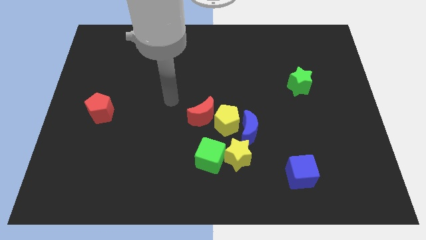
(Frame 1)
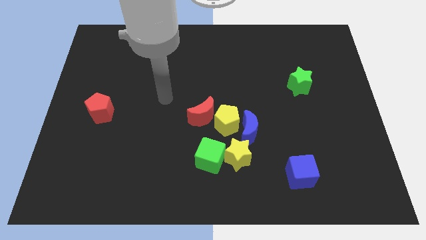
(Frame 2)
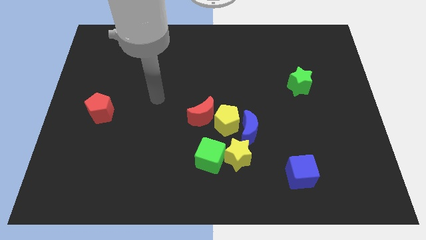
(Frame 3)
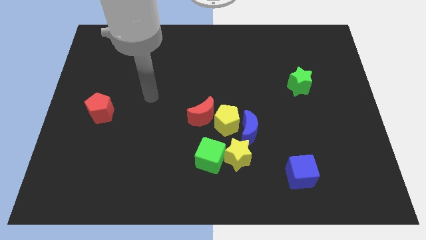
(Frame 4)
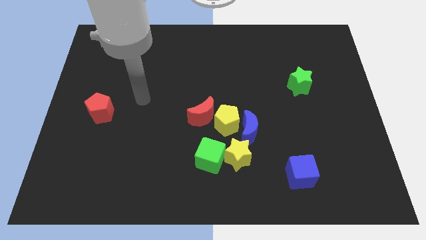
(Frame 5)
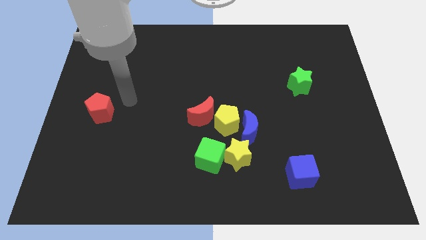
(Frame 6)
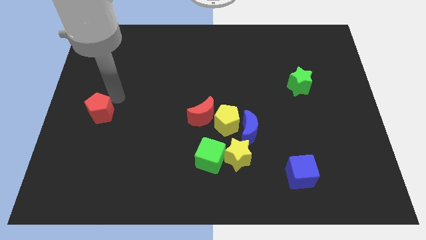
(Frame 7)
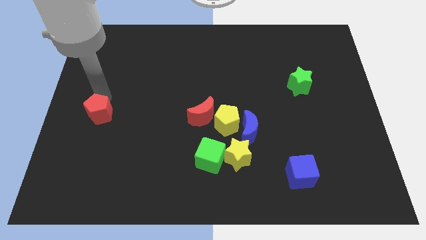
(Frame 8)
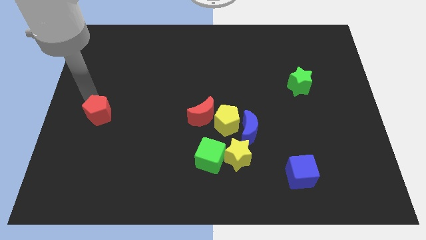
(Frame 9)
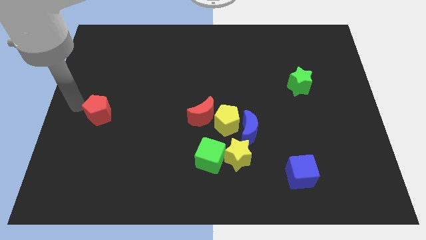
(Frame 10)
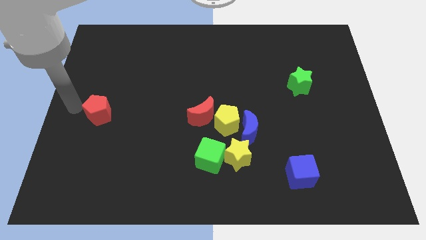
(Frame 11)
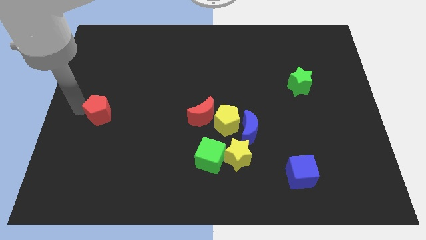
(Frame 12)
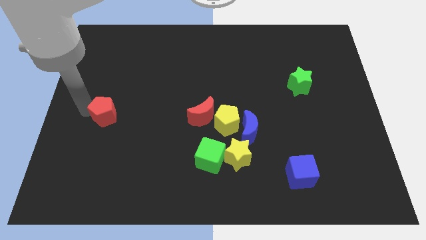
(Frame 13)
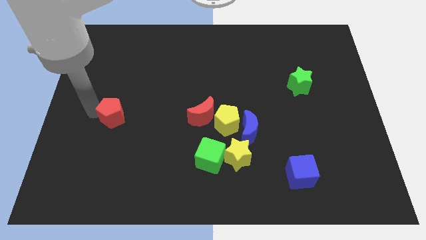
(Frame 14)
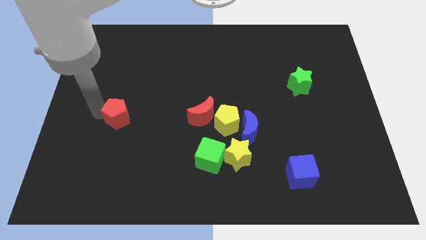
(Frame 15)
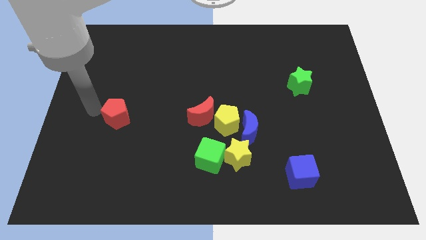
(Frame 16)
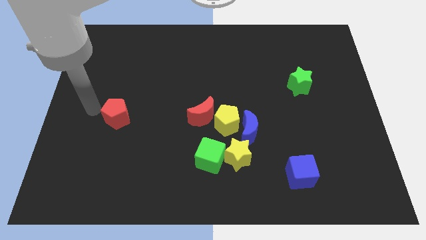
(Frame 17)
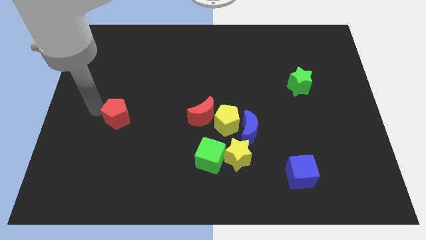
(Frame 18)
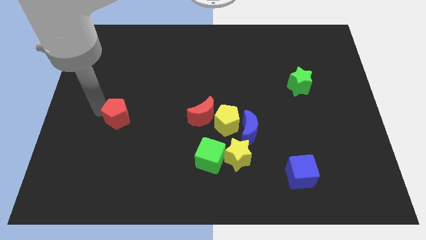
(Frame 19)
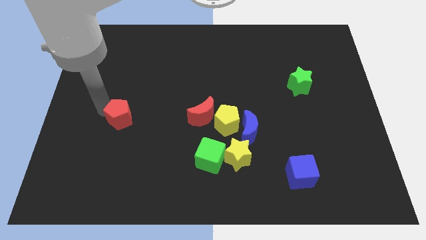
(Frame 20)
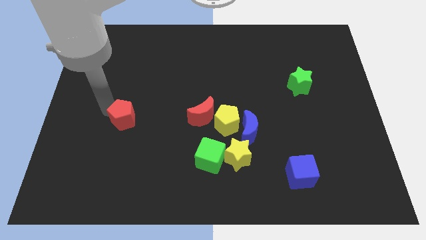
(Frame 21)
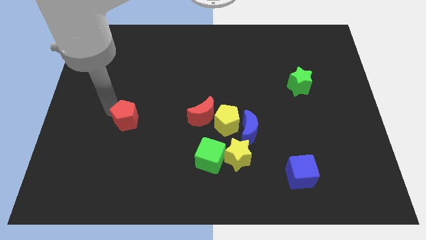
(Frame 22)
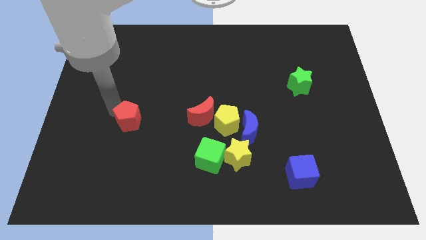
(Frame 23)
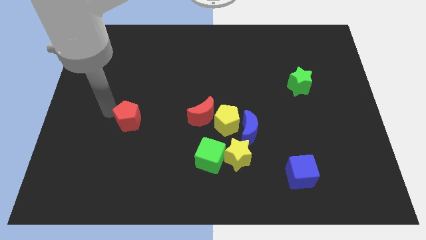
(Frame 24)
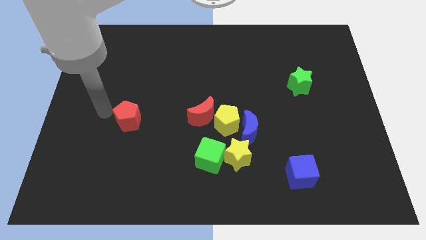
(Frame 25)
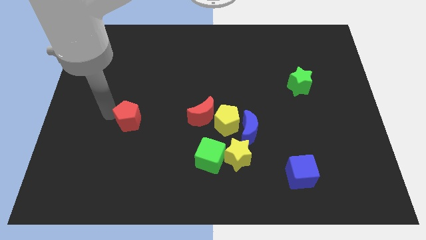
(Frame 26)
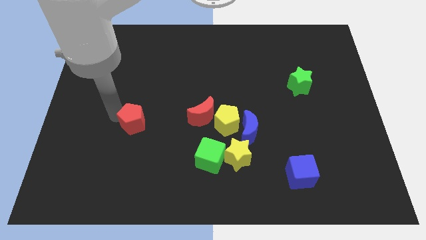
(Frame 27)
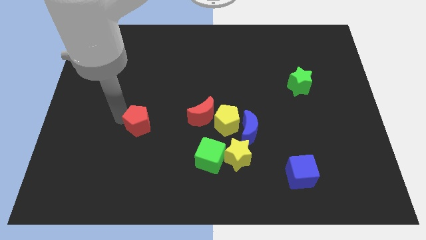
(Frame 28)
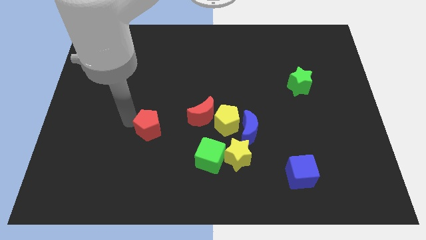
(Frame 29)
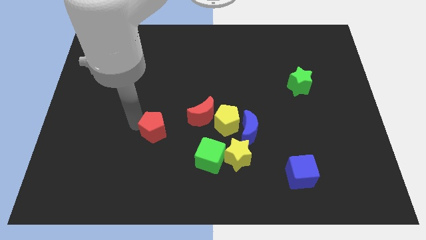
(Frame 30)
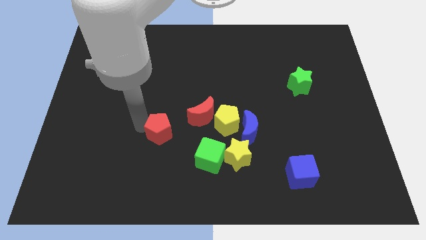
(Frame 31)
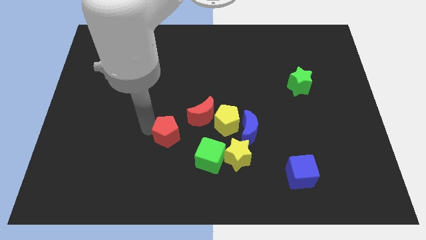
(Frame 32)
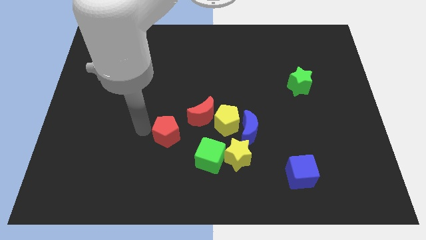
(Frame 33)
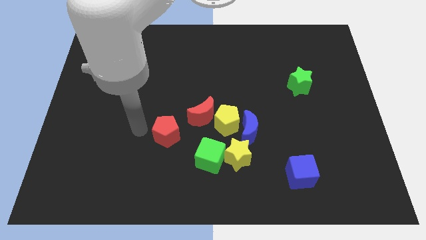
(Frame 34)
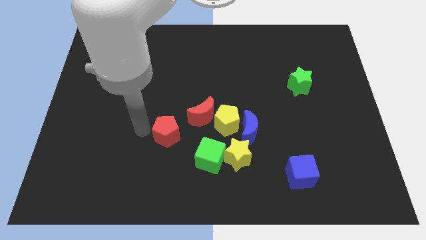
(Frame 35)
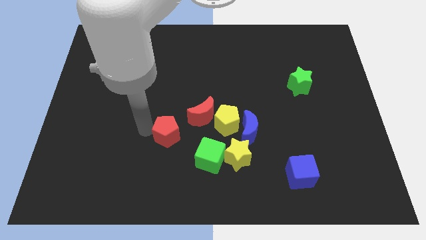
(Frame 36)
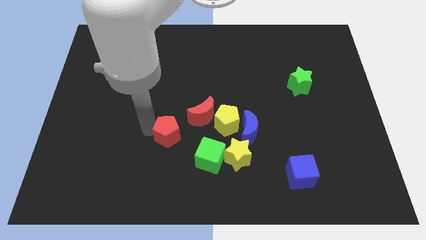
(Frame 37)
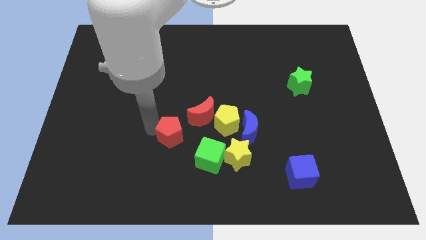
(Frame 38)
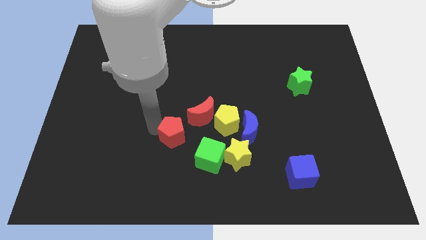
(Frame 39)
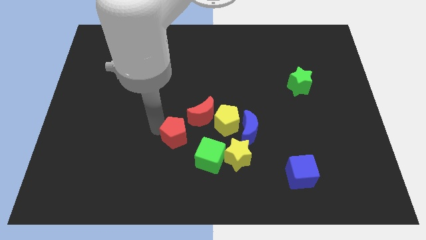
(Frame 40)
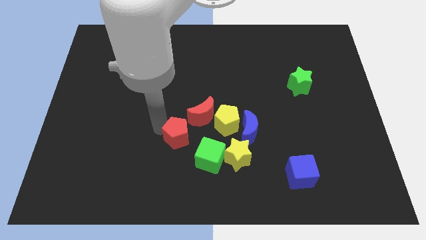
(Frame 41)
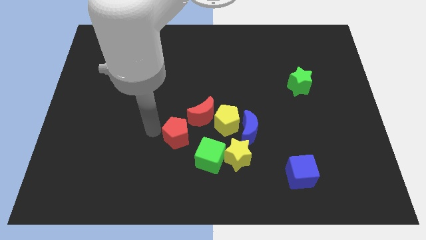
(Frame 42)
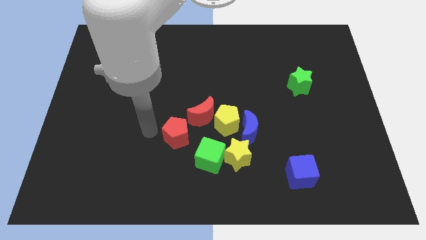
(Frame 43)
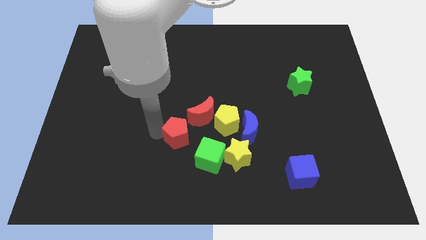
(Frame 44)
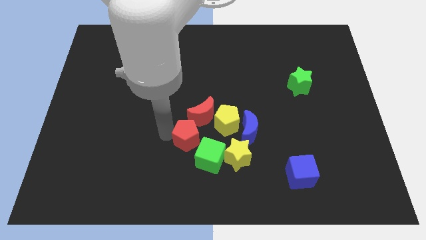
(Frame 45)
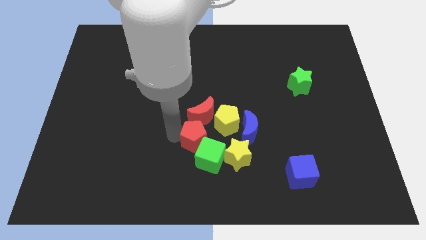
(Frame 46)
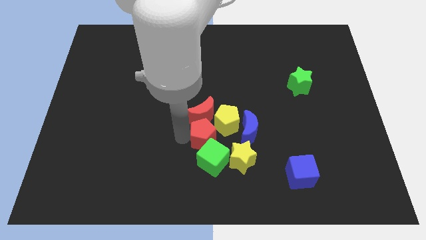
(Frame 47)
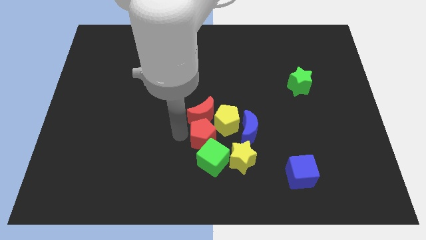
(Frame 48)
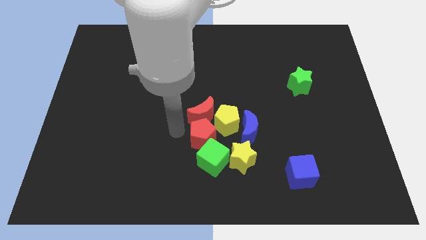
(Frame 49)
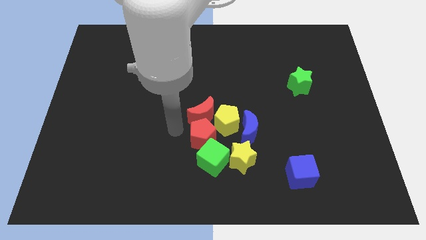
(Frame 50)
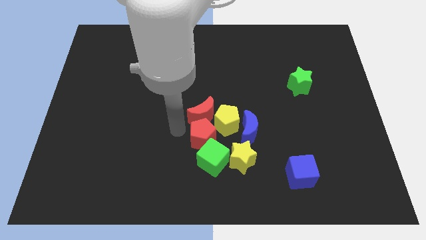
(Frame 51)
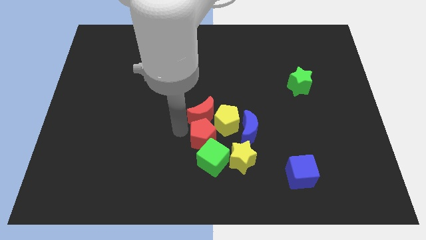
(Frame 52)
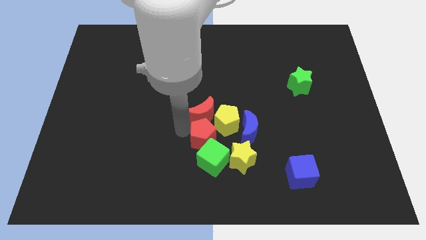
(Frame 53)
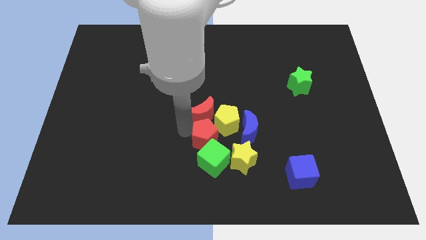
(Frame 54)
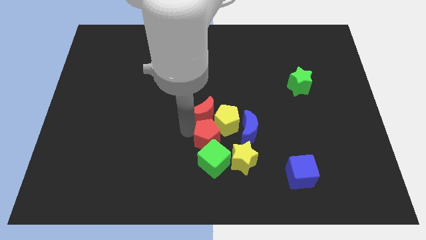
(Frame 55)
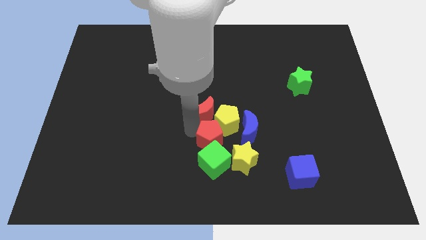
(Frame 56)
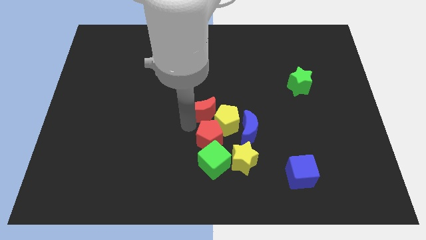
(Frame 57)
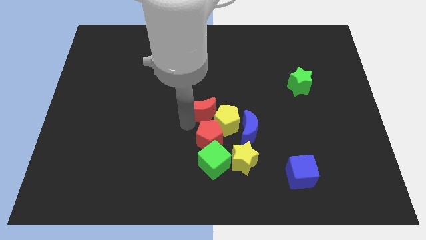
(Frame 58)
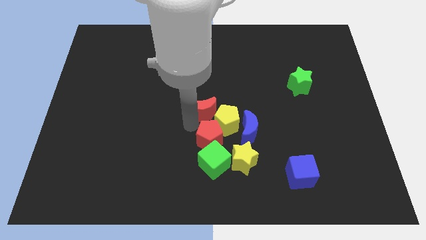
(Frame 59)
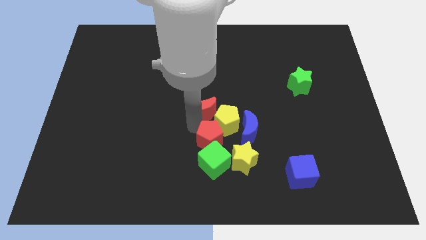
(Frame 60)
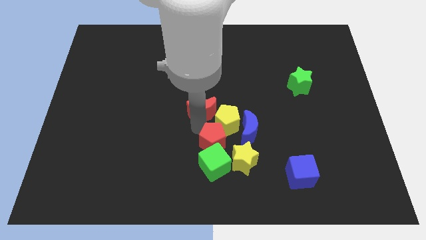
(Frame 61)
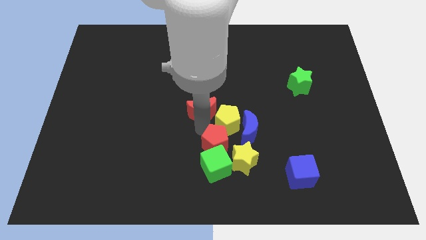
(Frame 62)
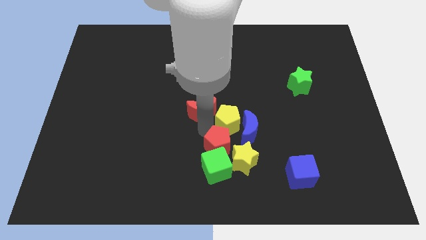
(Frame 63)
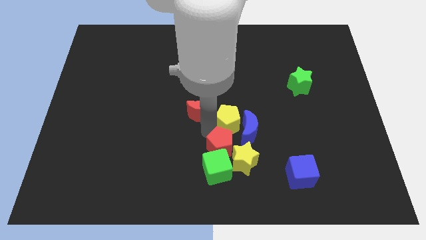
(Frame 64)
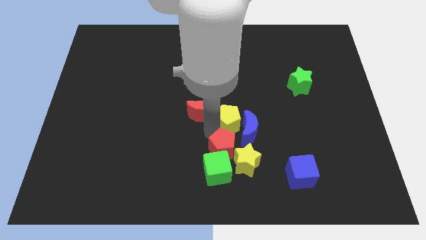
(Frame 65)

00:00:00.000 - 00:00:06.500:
move the red pentagon to the yellow star

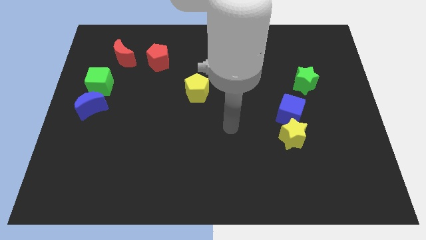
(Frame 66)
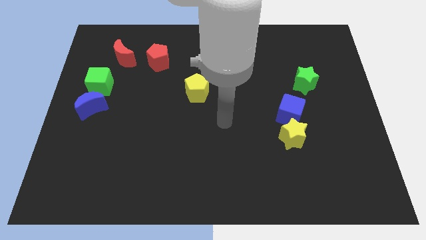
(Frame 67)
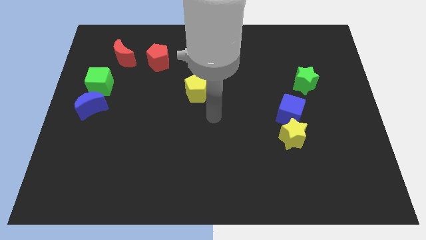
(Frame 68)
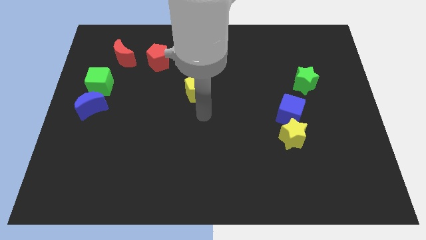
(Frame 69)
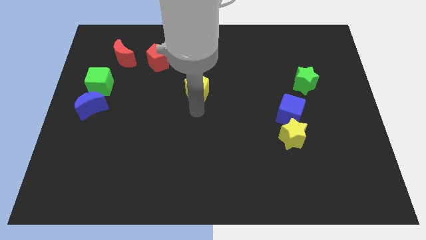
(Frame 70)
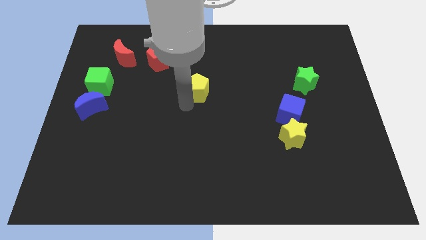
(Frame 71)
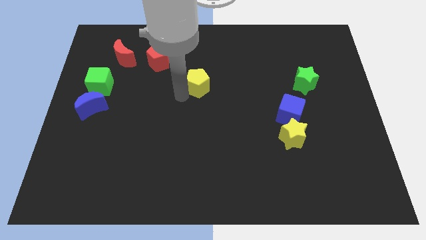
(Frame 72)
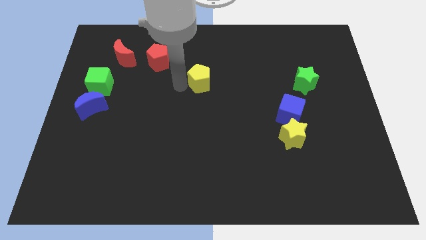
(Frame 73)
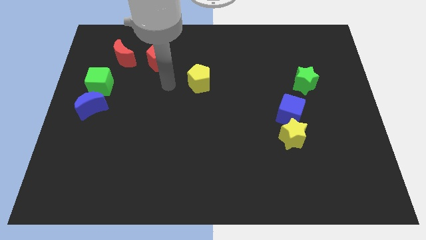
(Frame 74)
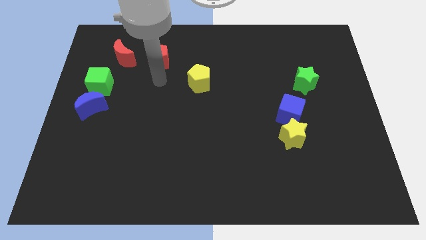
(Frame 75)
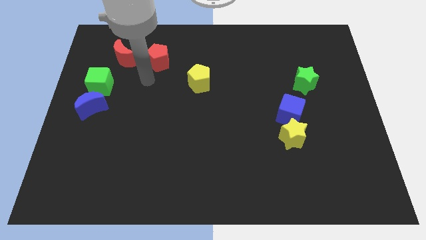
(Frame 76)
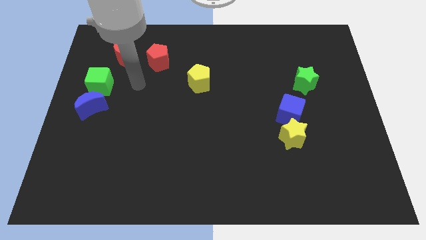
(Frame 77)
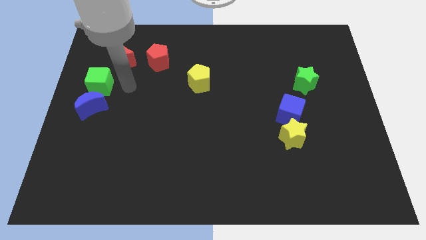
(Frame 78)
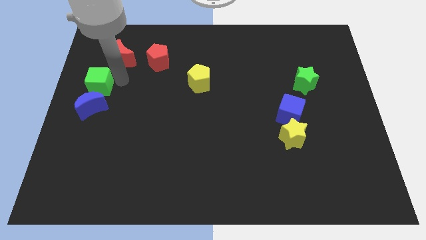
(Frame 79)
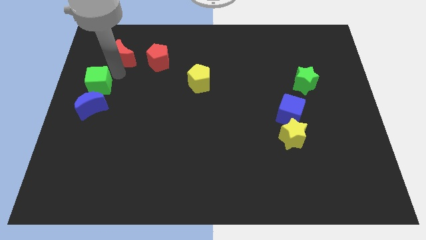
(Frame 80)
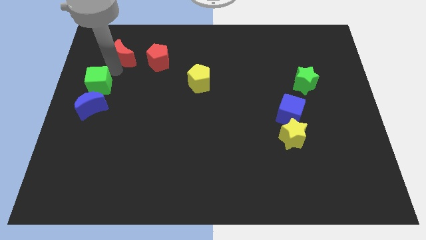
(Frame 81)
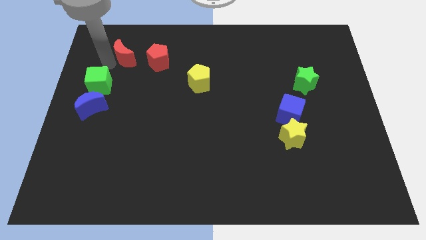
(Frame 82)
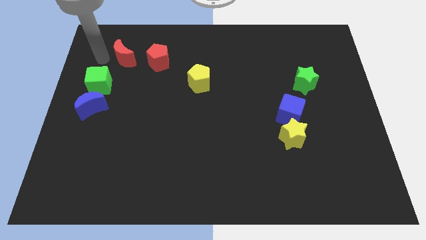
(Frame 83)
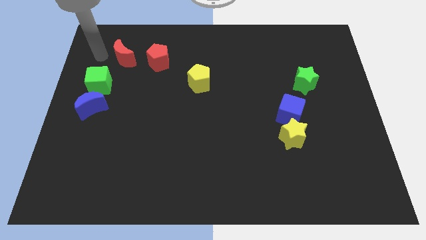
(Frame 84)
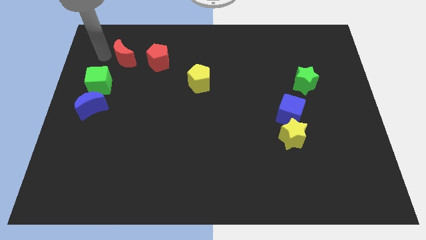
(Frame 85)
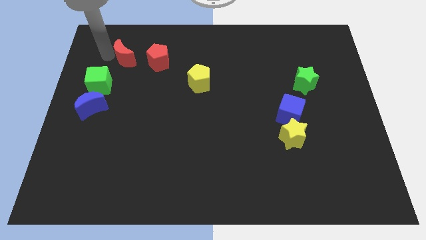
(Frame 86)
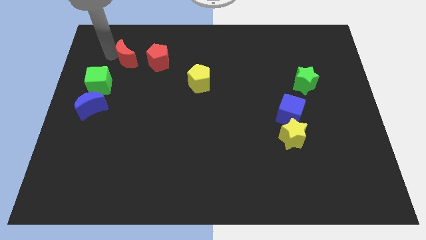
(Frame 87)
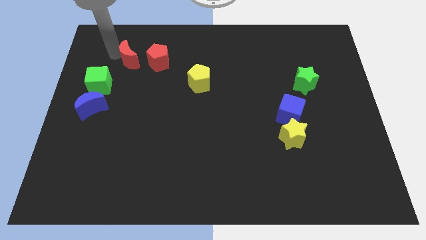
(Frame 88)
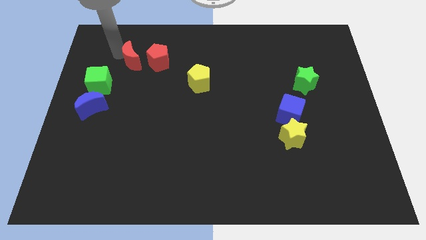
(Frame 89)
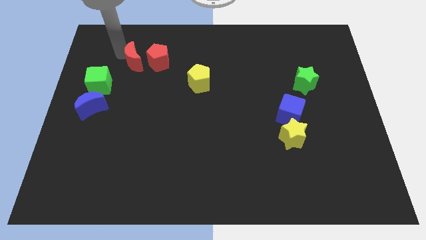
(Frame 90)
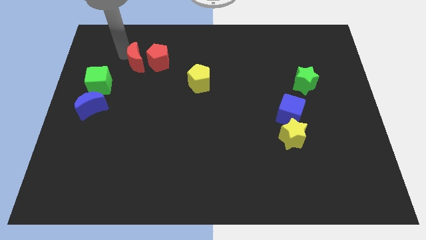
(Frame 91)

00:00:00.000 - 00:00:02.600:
move the red moon towards the red pentagon
